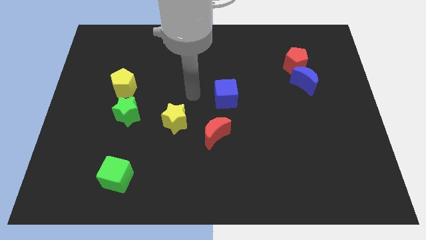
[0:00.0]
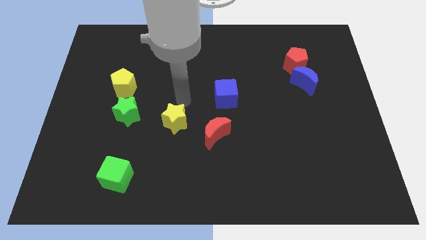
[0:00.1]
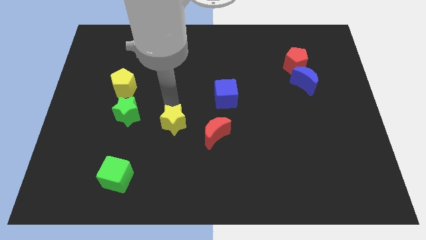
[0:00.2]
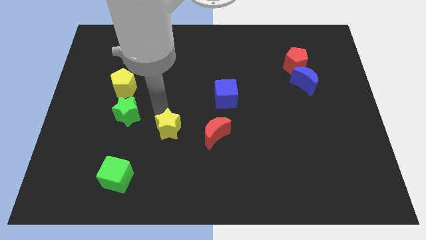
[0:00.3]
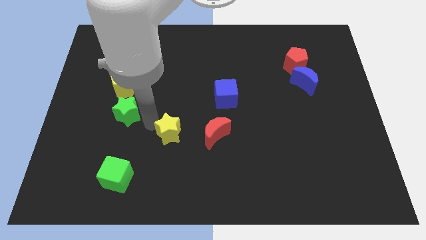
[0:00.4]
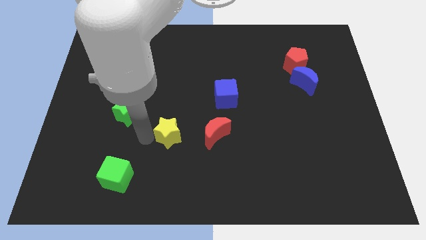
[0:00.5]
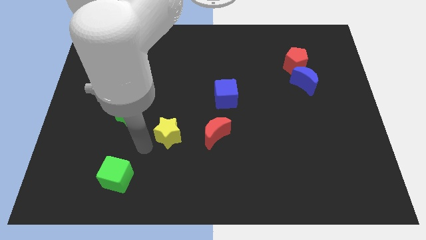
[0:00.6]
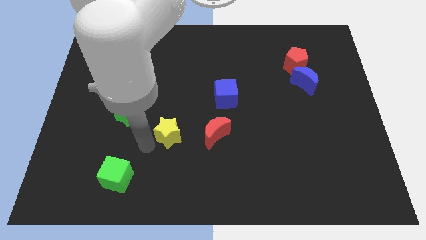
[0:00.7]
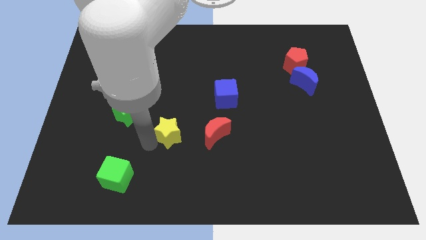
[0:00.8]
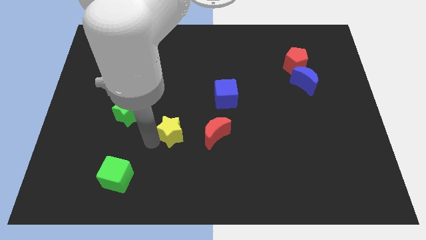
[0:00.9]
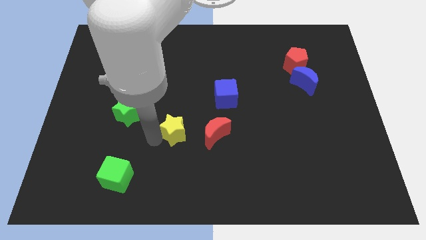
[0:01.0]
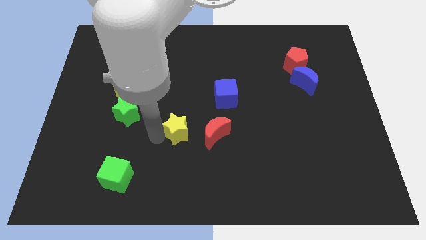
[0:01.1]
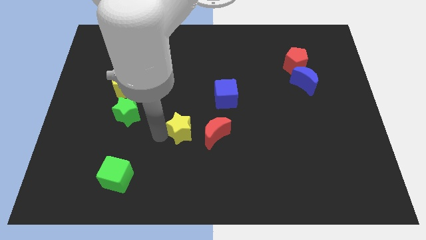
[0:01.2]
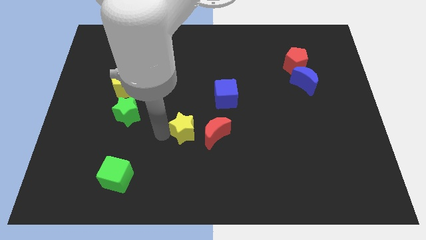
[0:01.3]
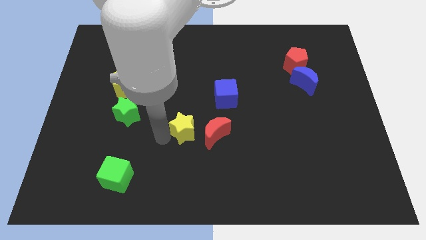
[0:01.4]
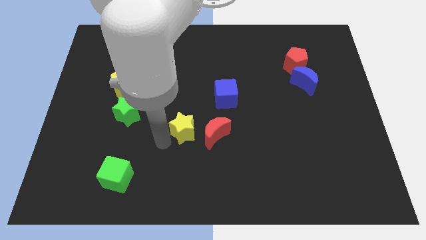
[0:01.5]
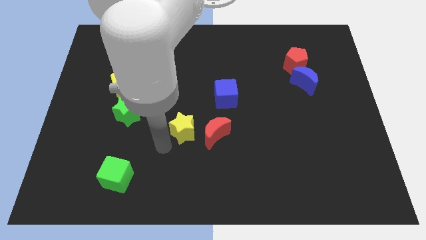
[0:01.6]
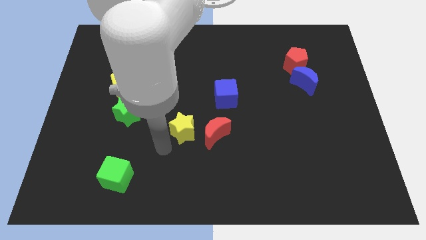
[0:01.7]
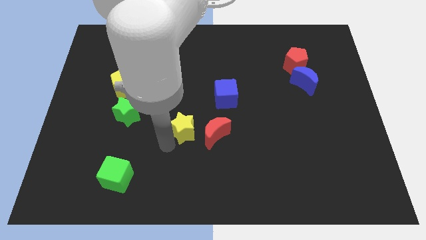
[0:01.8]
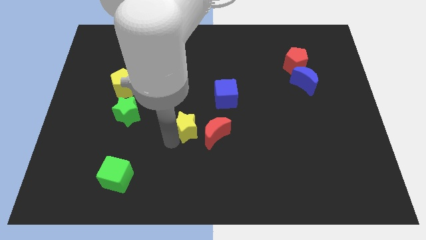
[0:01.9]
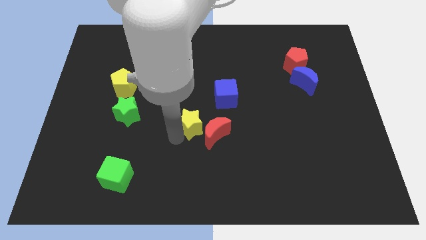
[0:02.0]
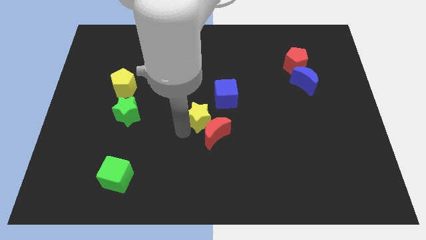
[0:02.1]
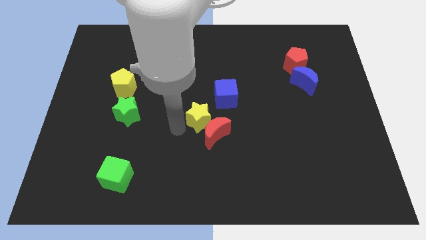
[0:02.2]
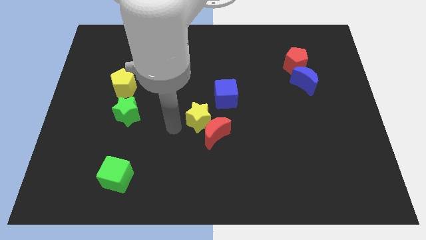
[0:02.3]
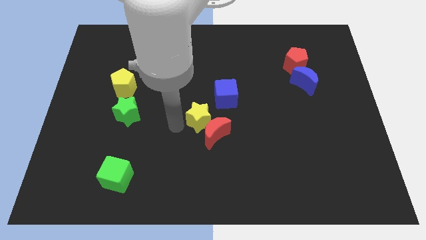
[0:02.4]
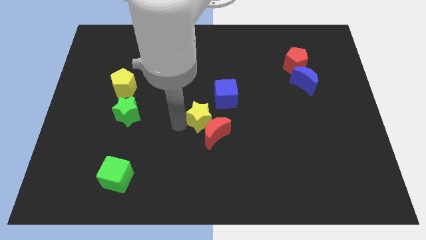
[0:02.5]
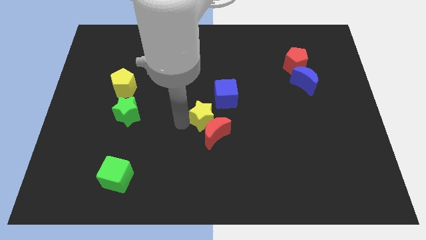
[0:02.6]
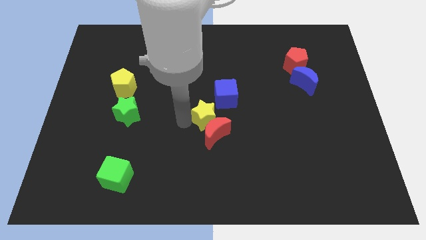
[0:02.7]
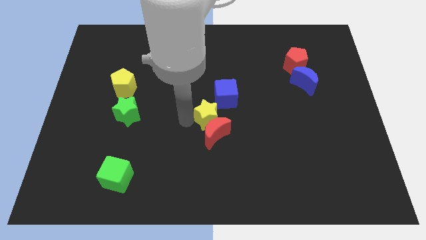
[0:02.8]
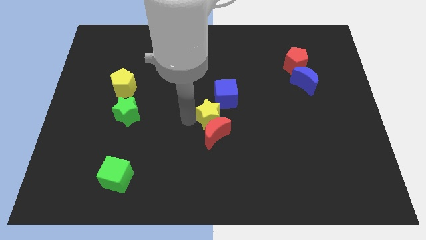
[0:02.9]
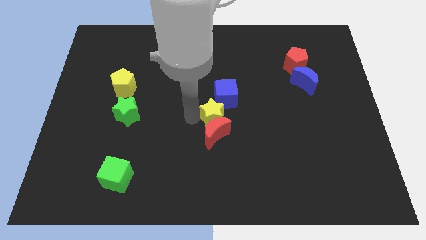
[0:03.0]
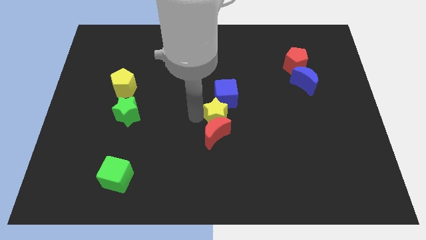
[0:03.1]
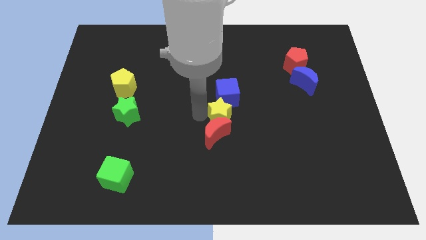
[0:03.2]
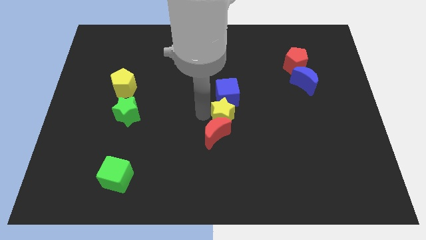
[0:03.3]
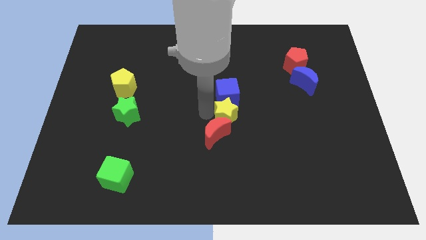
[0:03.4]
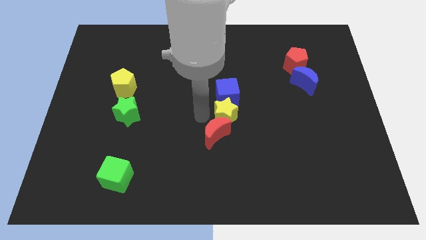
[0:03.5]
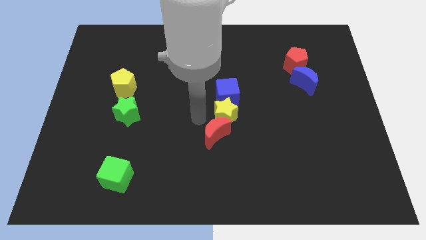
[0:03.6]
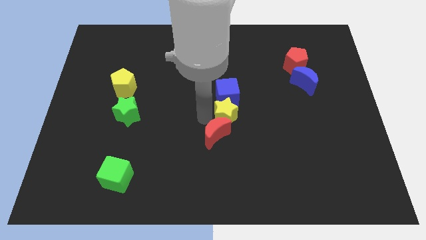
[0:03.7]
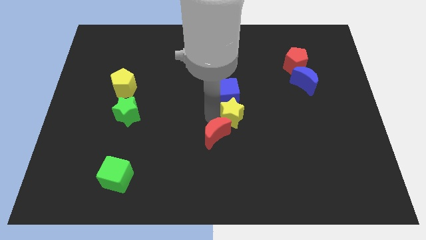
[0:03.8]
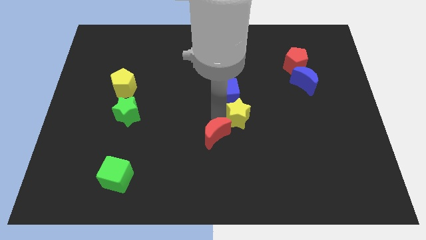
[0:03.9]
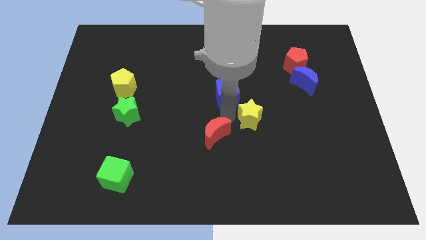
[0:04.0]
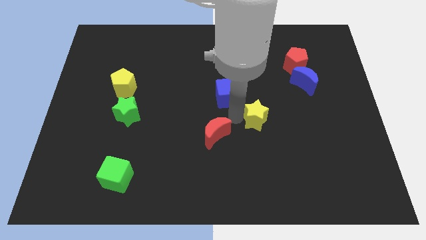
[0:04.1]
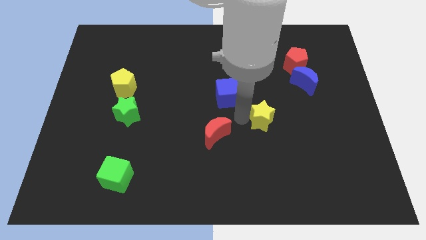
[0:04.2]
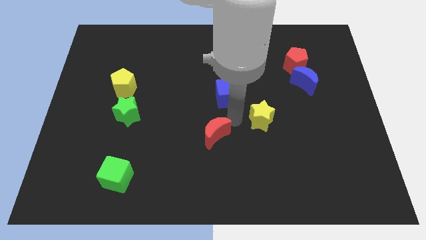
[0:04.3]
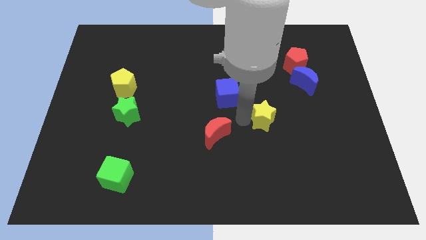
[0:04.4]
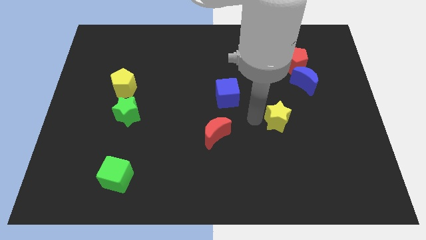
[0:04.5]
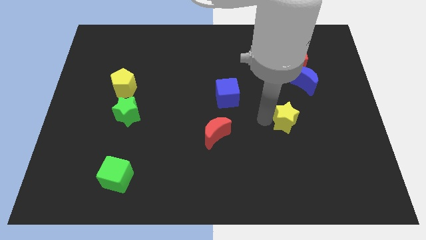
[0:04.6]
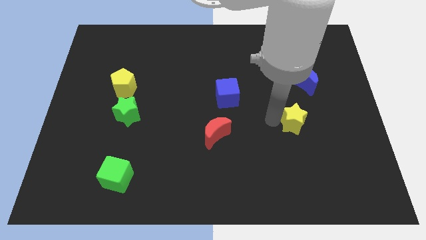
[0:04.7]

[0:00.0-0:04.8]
put the yellow star to the bottom of the blue moon

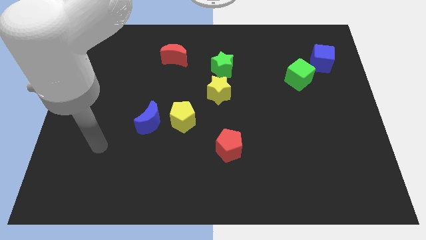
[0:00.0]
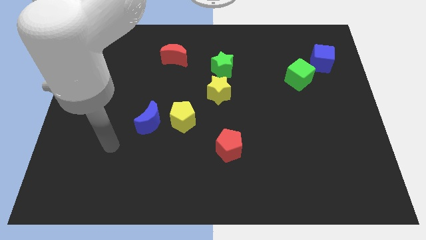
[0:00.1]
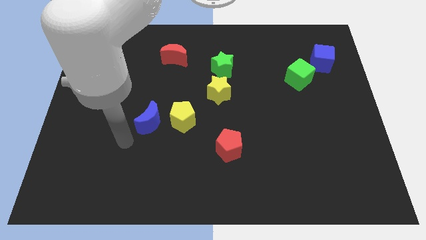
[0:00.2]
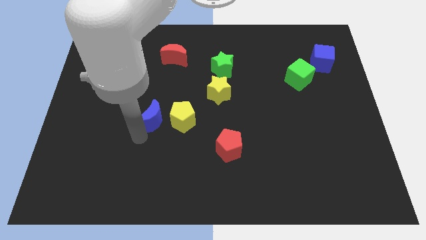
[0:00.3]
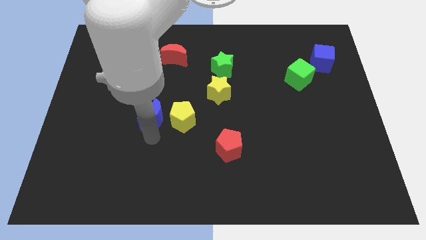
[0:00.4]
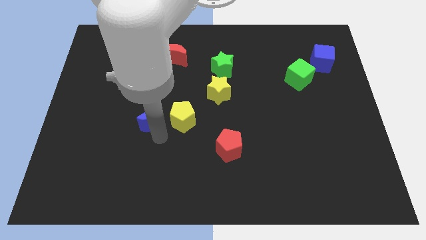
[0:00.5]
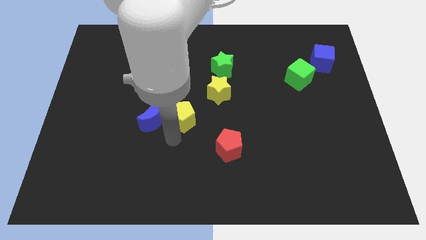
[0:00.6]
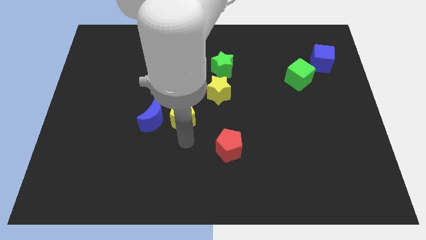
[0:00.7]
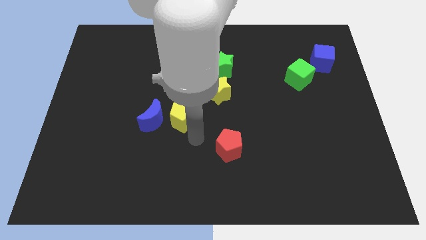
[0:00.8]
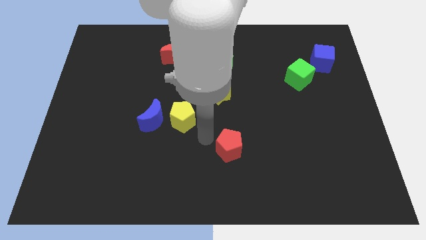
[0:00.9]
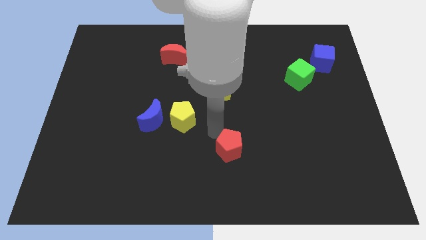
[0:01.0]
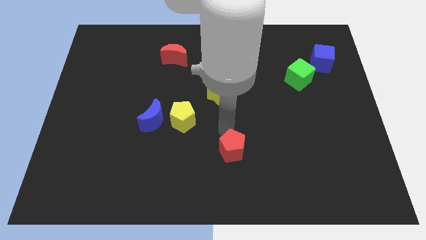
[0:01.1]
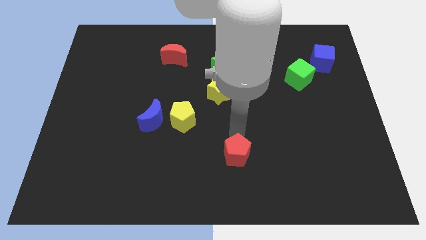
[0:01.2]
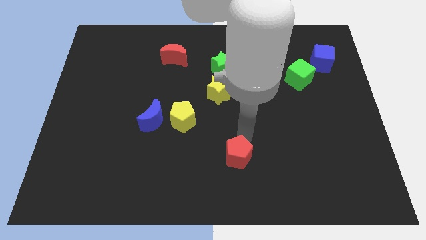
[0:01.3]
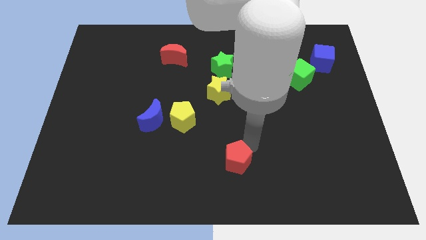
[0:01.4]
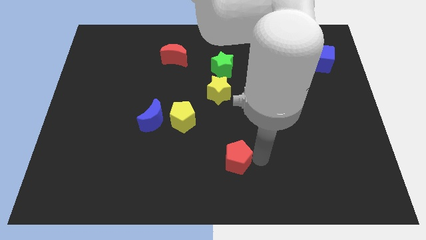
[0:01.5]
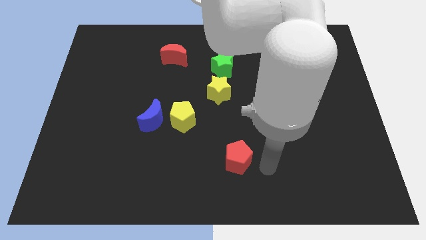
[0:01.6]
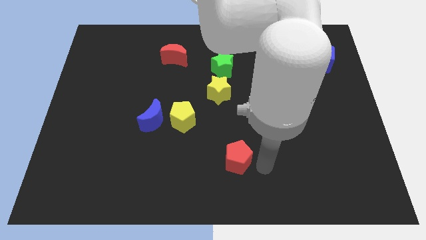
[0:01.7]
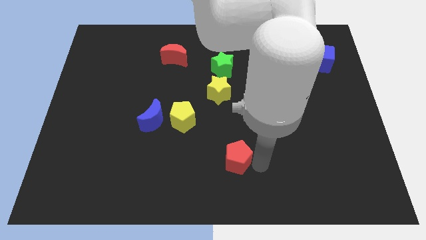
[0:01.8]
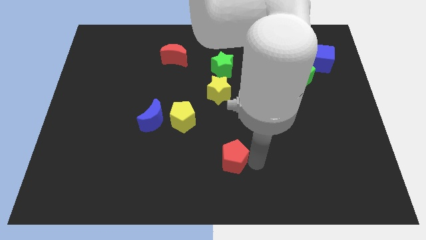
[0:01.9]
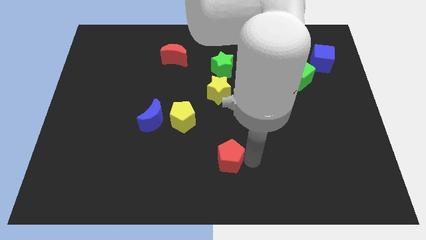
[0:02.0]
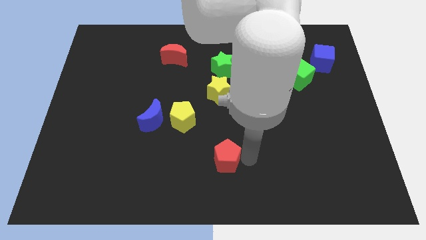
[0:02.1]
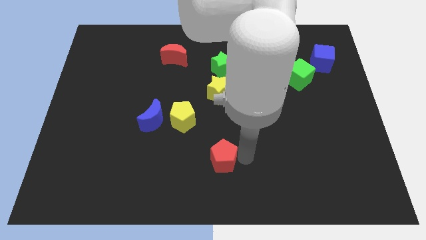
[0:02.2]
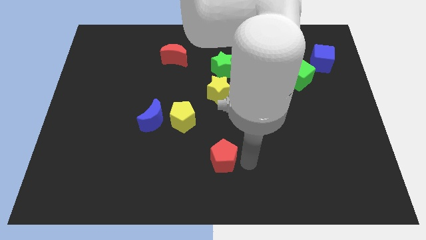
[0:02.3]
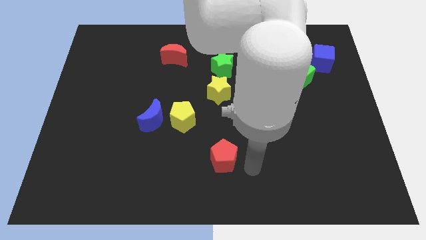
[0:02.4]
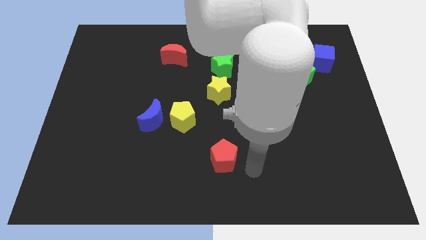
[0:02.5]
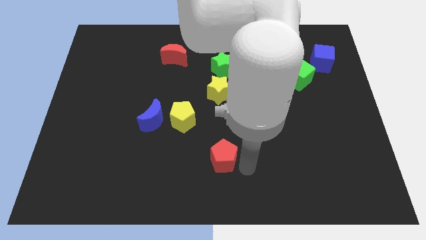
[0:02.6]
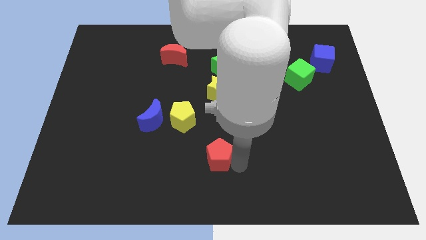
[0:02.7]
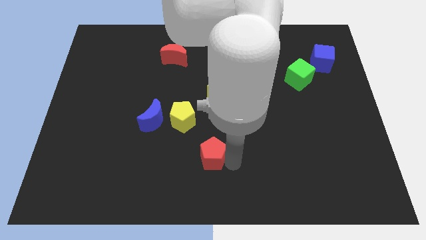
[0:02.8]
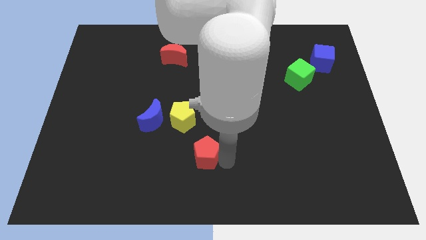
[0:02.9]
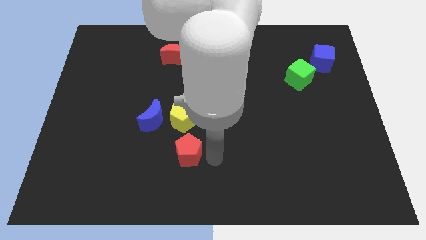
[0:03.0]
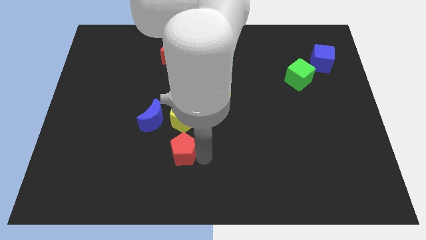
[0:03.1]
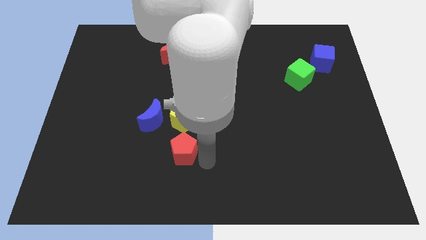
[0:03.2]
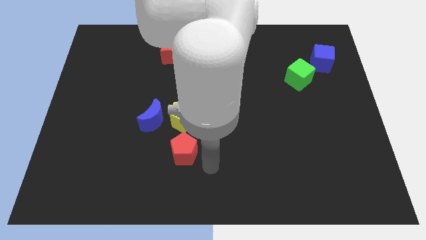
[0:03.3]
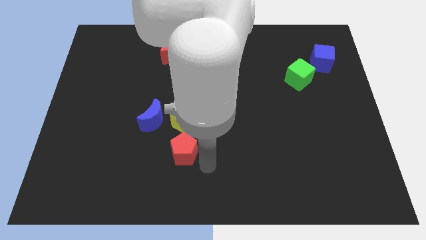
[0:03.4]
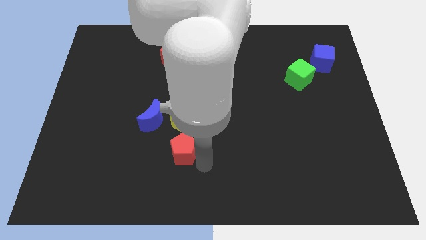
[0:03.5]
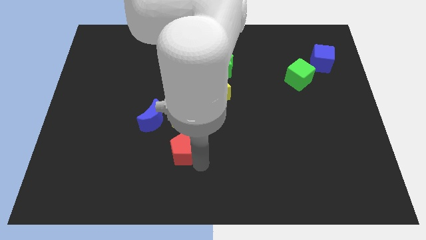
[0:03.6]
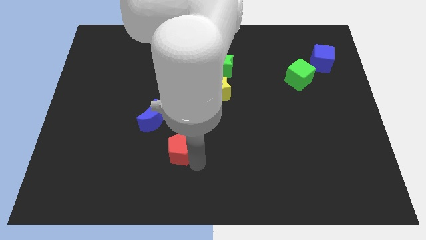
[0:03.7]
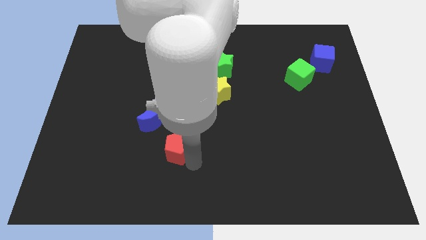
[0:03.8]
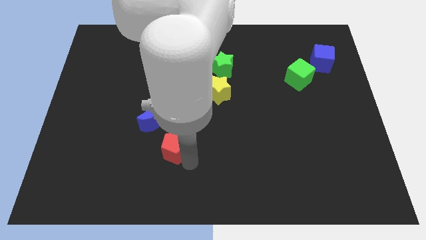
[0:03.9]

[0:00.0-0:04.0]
slide the red pentagon diagonally down and to the left of the yellow pentagon
